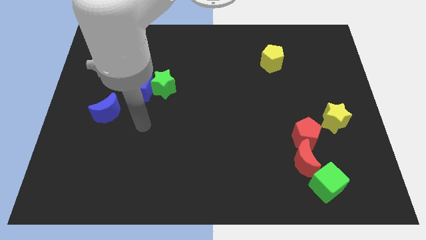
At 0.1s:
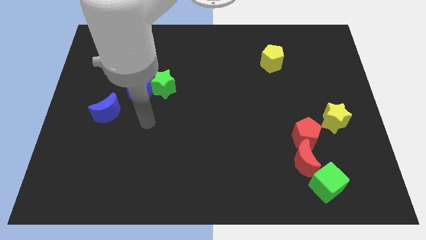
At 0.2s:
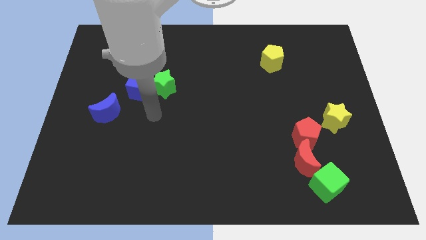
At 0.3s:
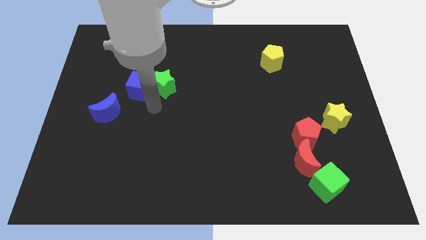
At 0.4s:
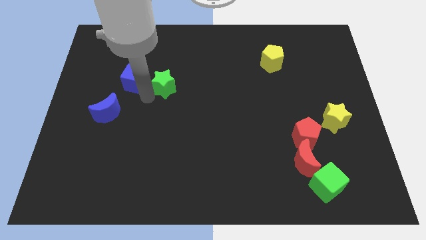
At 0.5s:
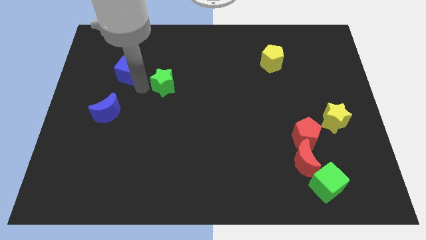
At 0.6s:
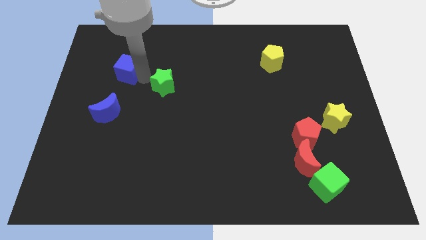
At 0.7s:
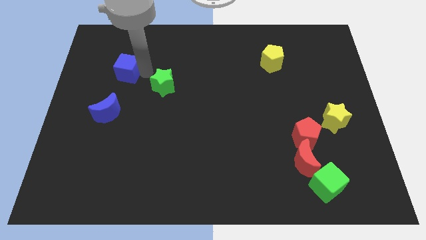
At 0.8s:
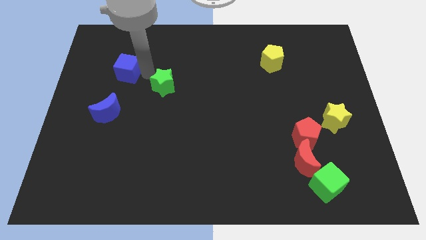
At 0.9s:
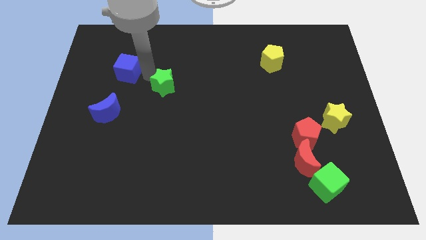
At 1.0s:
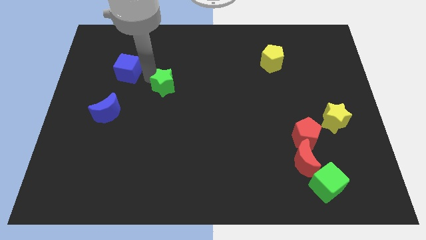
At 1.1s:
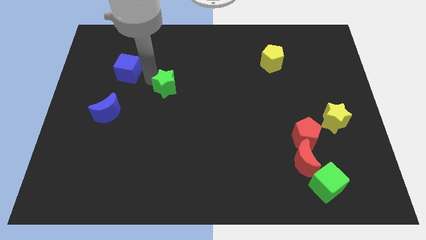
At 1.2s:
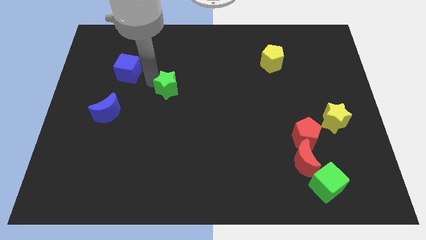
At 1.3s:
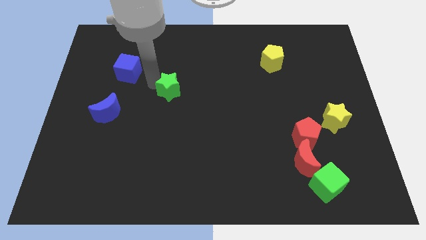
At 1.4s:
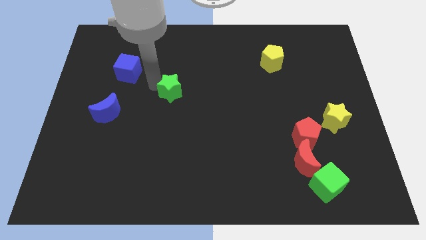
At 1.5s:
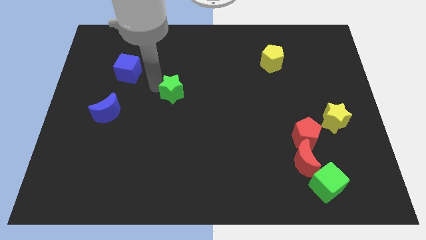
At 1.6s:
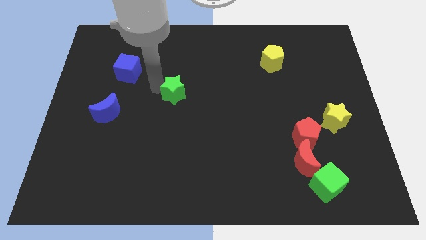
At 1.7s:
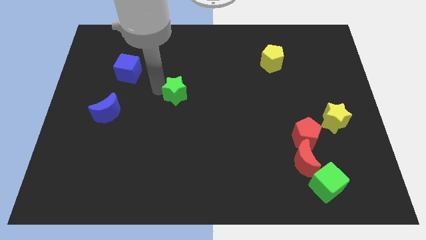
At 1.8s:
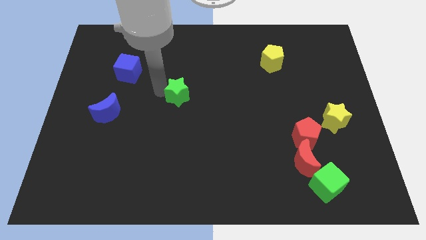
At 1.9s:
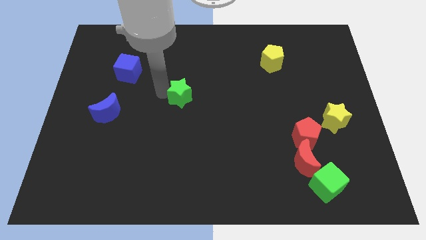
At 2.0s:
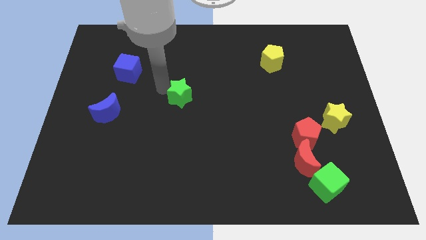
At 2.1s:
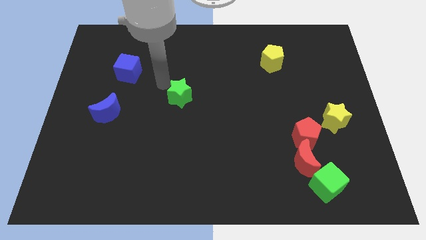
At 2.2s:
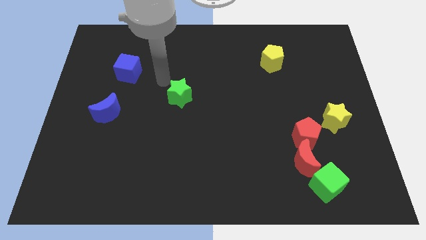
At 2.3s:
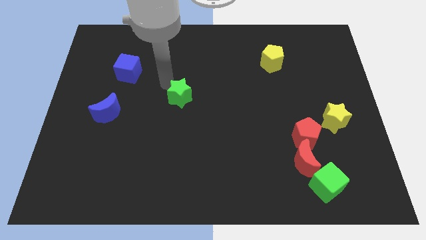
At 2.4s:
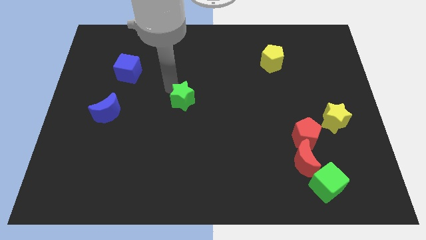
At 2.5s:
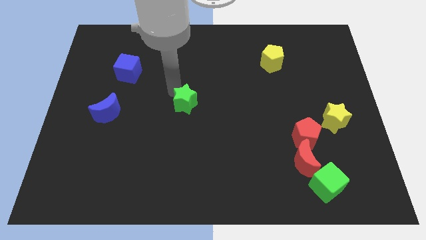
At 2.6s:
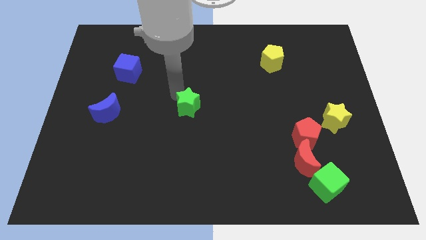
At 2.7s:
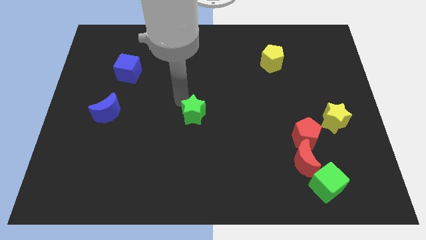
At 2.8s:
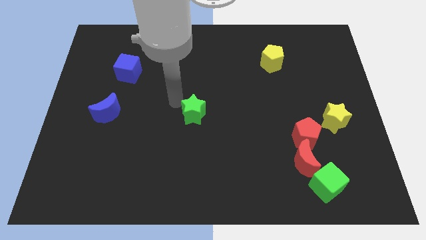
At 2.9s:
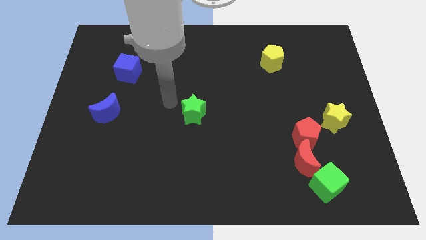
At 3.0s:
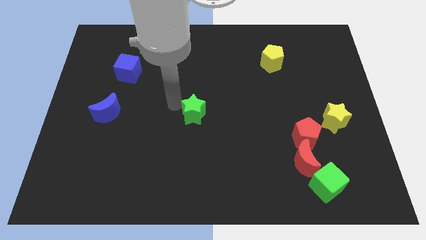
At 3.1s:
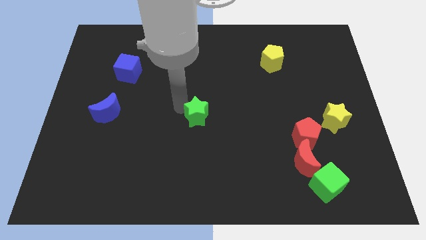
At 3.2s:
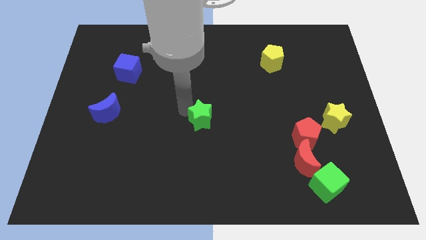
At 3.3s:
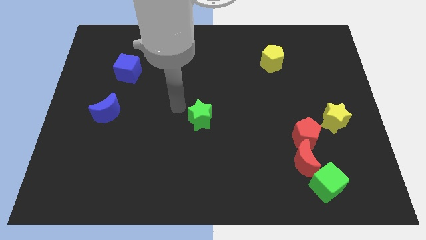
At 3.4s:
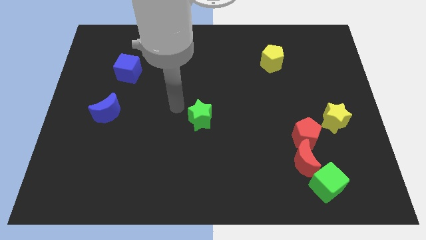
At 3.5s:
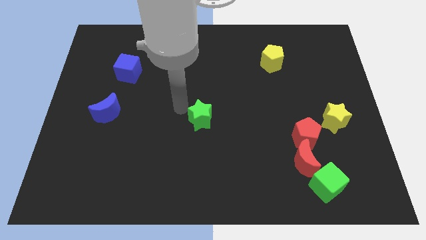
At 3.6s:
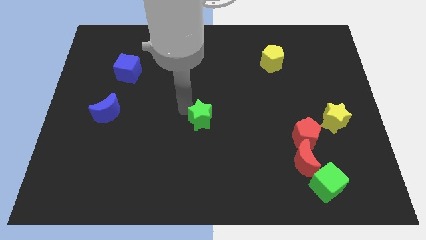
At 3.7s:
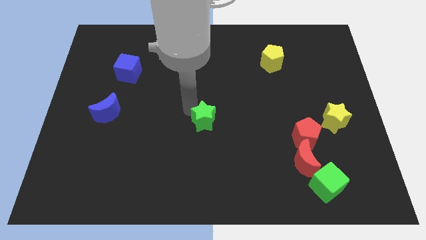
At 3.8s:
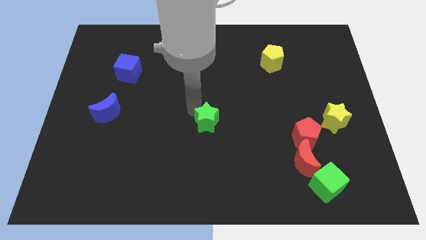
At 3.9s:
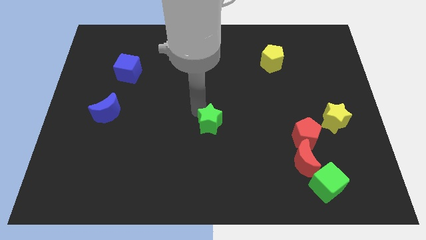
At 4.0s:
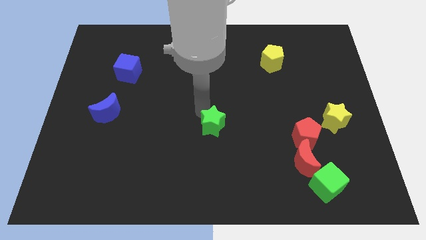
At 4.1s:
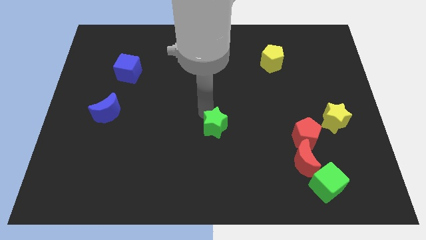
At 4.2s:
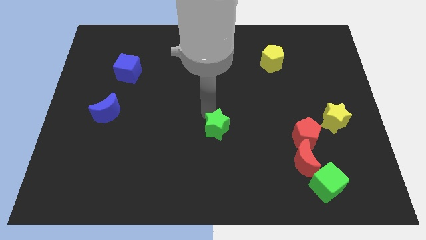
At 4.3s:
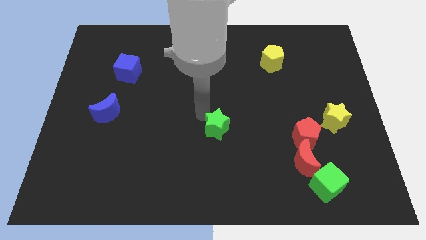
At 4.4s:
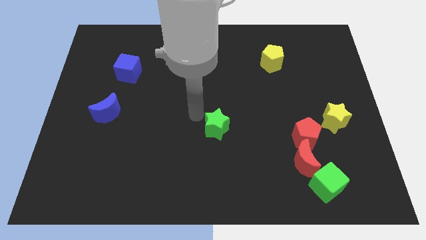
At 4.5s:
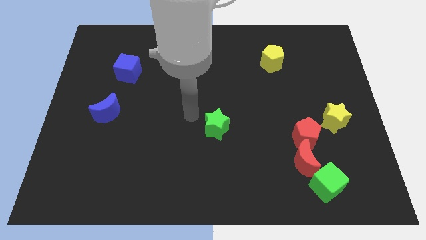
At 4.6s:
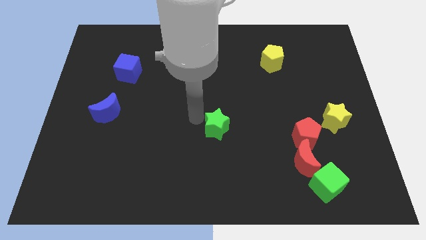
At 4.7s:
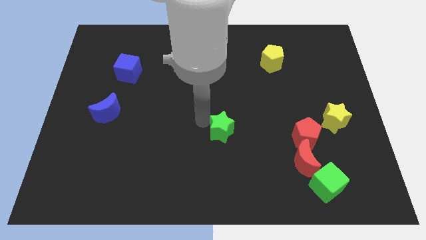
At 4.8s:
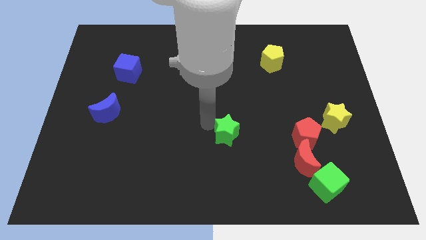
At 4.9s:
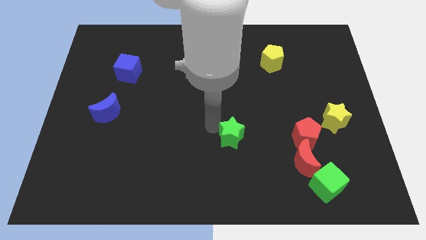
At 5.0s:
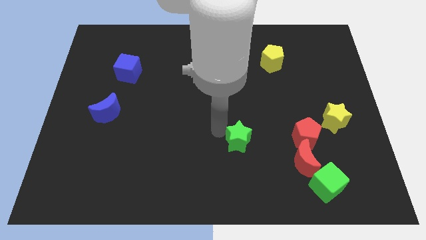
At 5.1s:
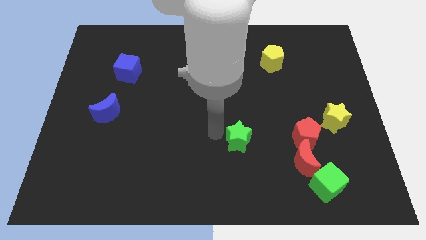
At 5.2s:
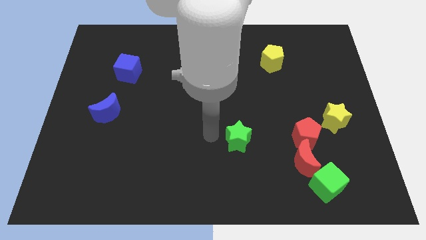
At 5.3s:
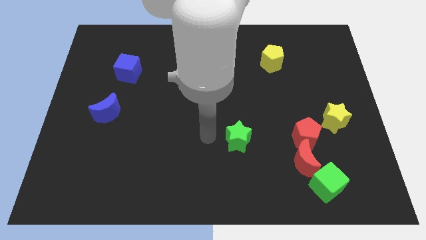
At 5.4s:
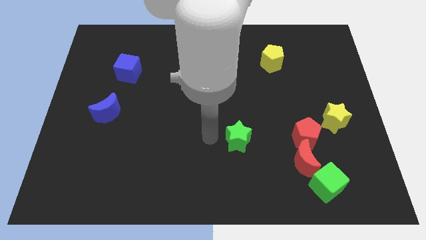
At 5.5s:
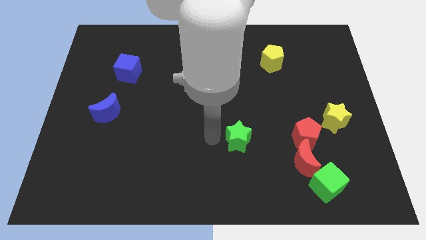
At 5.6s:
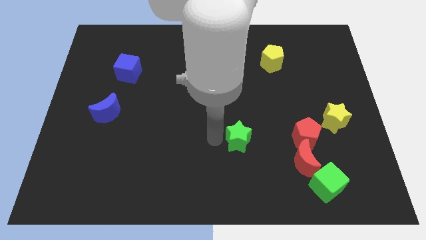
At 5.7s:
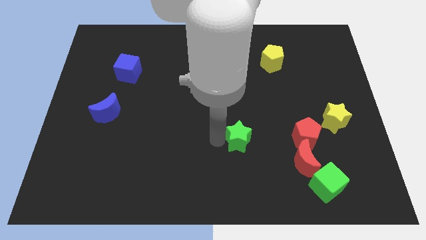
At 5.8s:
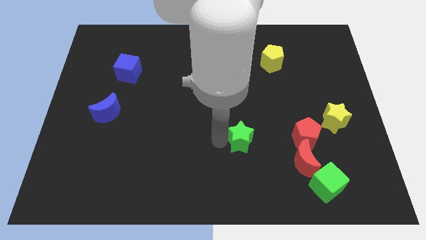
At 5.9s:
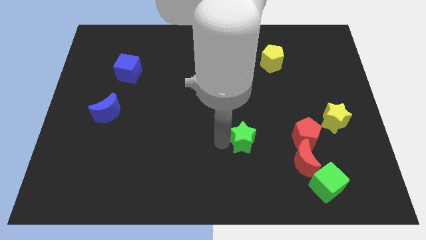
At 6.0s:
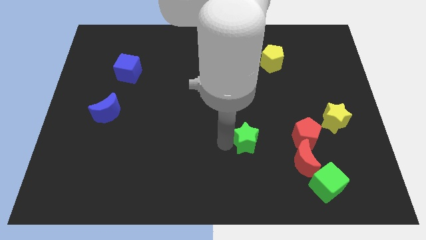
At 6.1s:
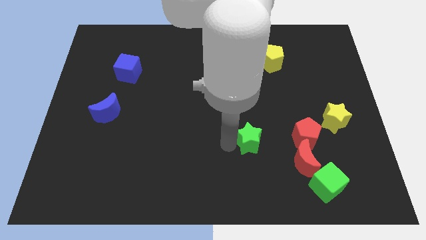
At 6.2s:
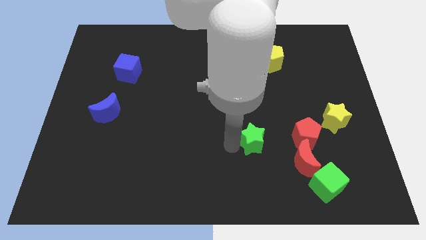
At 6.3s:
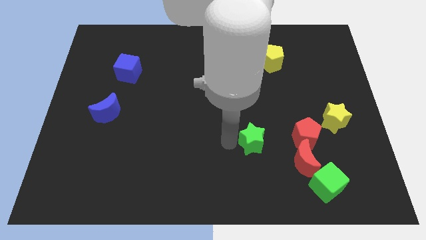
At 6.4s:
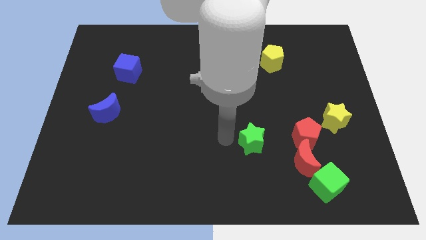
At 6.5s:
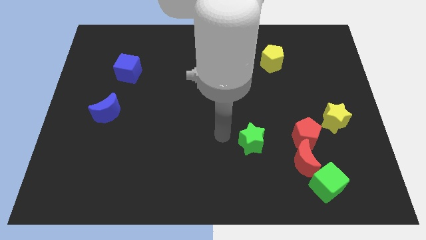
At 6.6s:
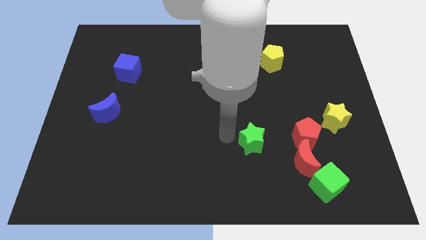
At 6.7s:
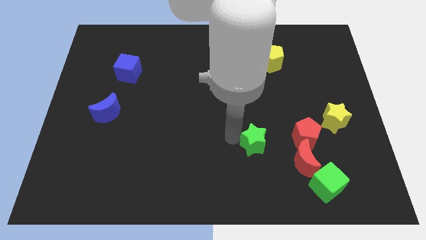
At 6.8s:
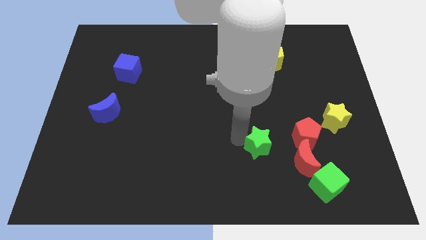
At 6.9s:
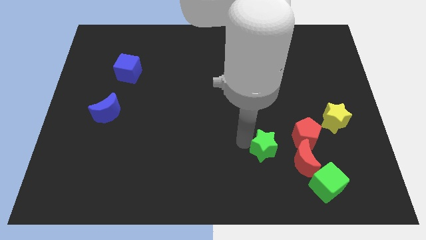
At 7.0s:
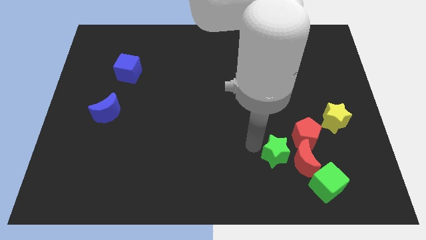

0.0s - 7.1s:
push the green star towards the red moon
